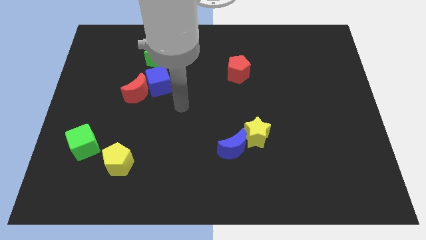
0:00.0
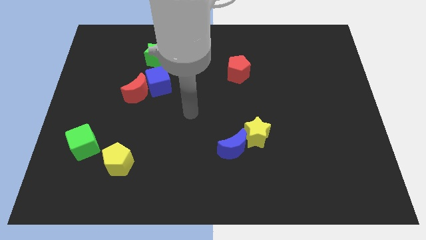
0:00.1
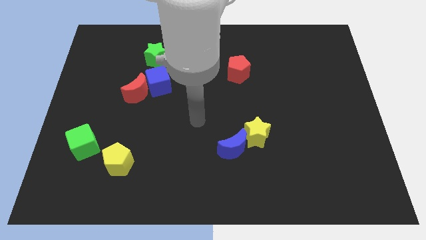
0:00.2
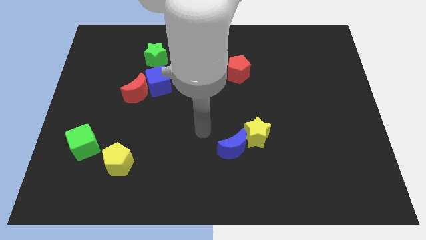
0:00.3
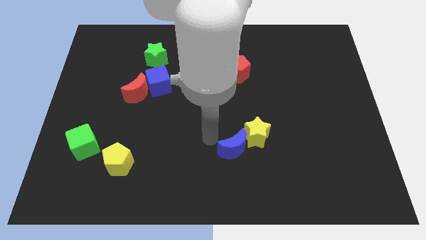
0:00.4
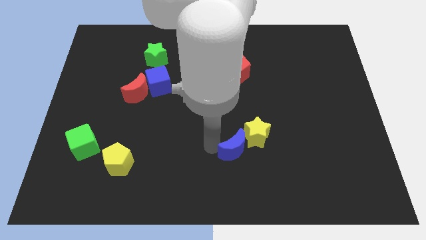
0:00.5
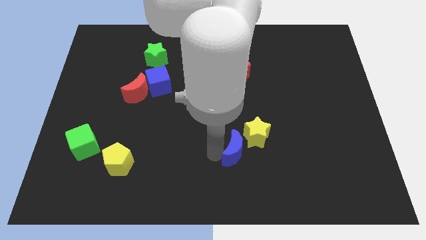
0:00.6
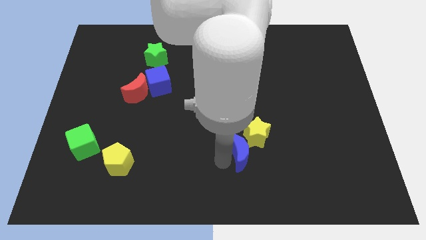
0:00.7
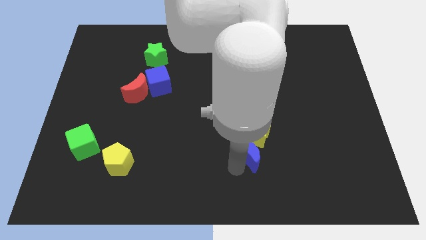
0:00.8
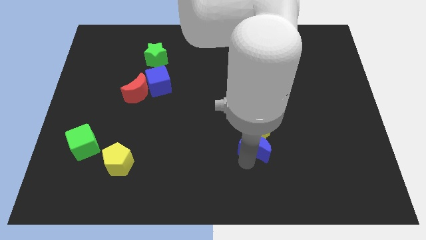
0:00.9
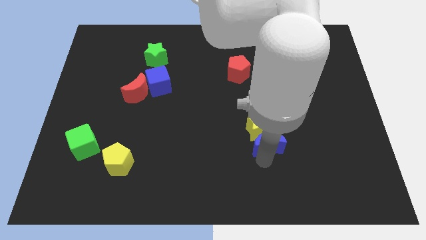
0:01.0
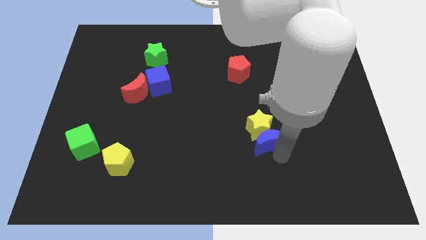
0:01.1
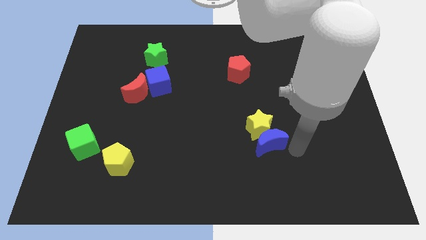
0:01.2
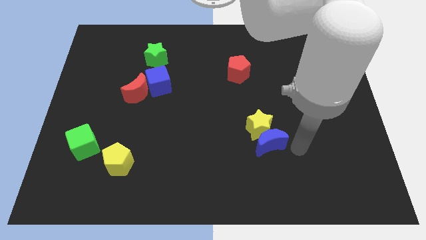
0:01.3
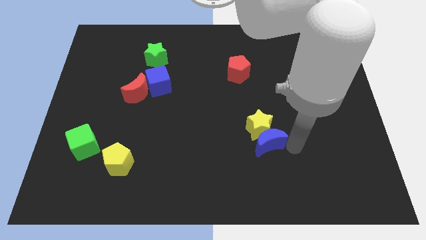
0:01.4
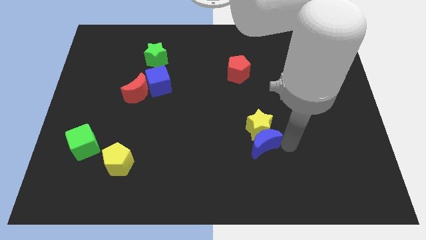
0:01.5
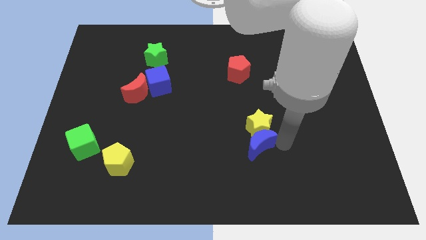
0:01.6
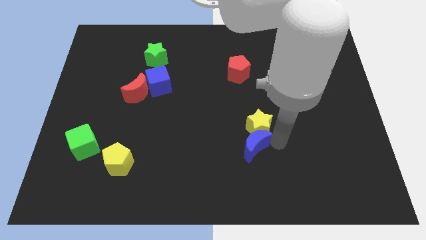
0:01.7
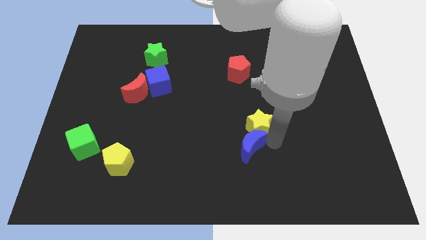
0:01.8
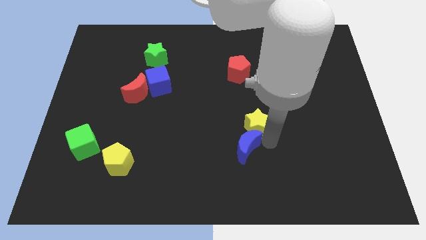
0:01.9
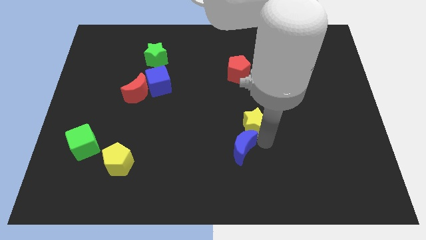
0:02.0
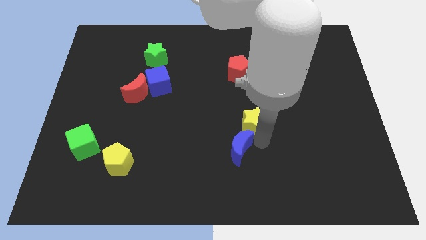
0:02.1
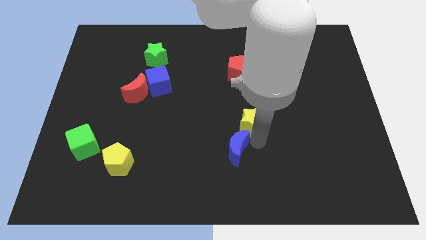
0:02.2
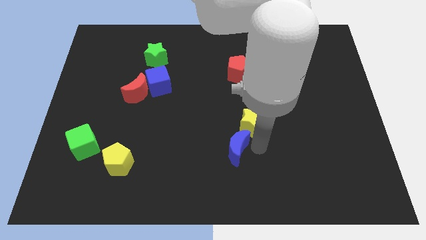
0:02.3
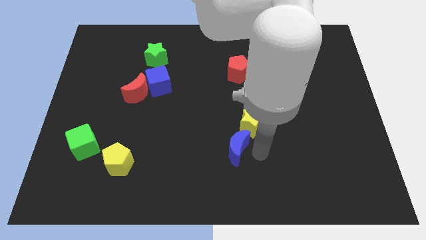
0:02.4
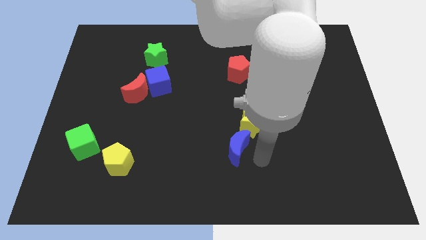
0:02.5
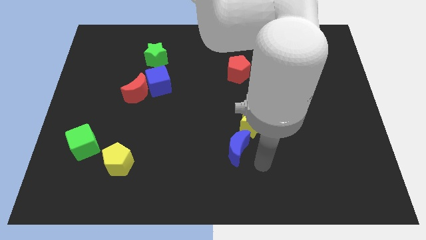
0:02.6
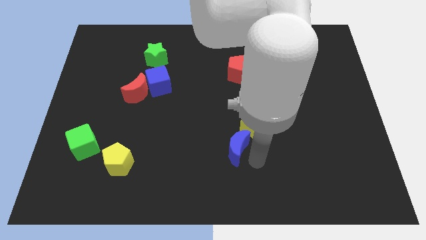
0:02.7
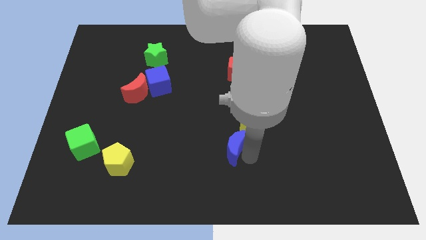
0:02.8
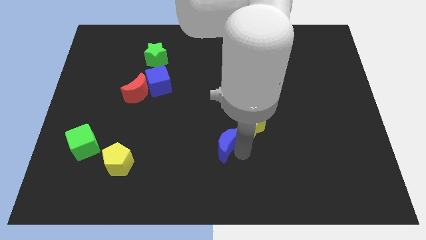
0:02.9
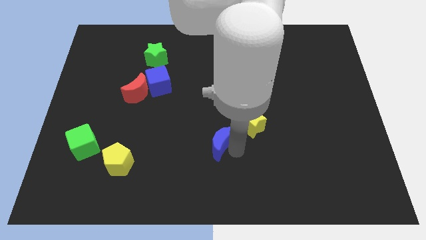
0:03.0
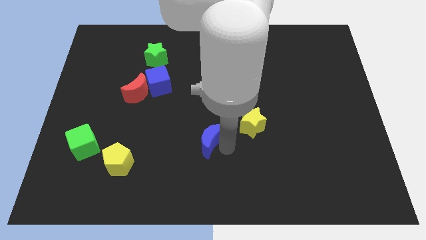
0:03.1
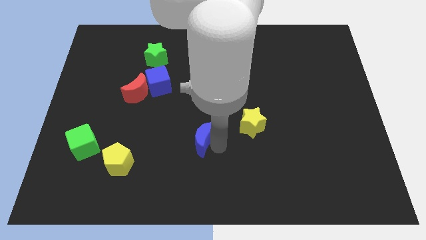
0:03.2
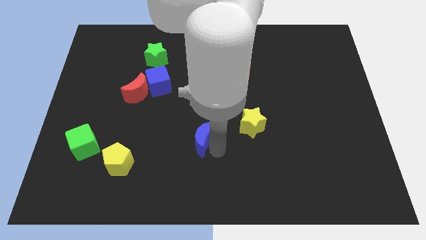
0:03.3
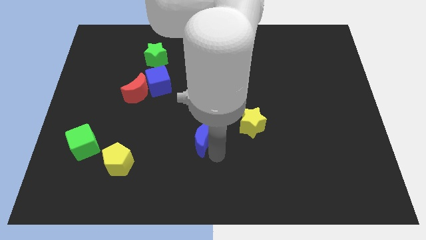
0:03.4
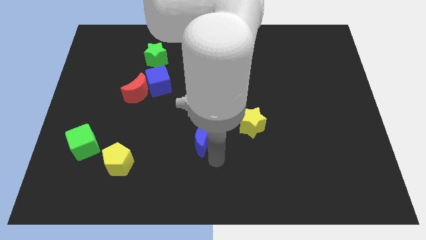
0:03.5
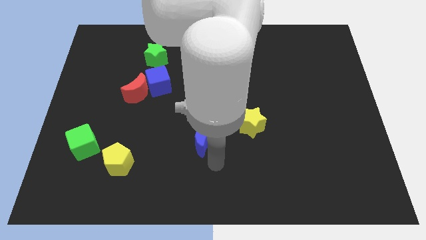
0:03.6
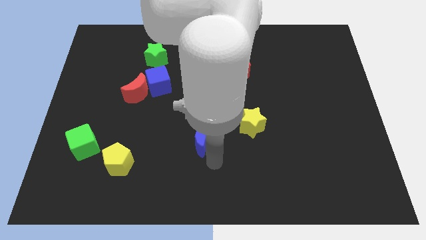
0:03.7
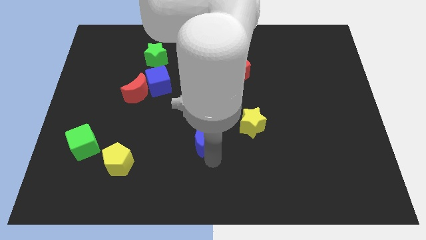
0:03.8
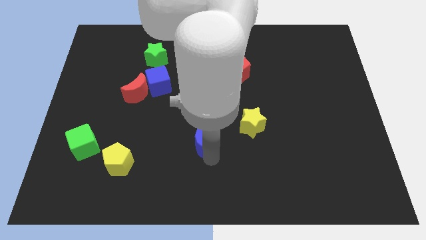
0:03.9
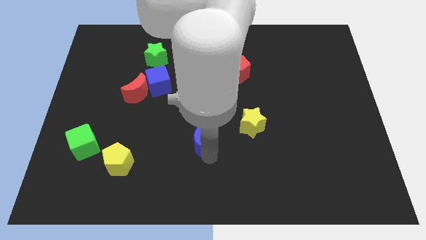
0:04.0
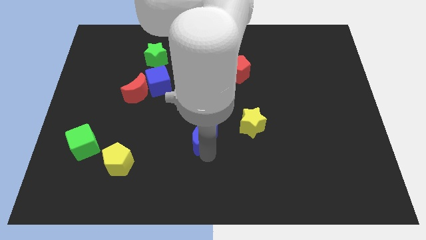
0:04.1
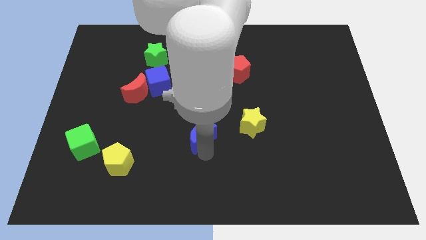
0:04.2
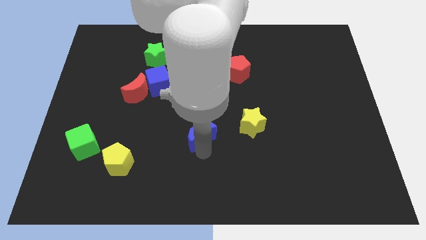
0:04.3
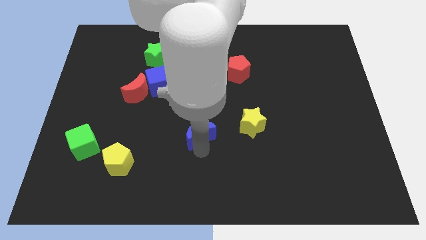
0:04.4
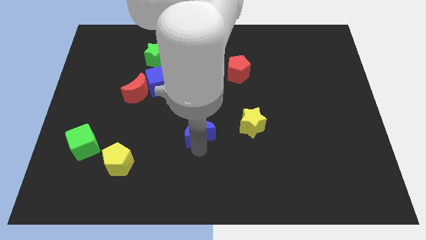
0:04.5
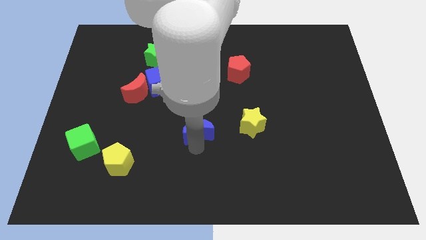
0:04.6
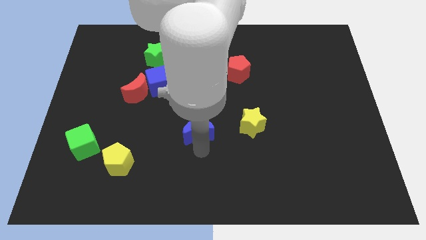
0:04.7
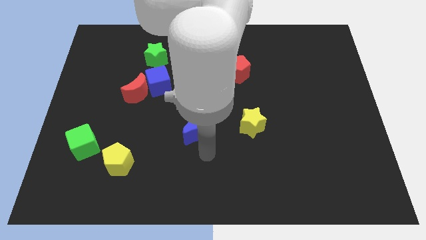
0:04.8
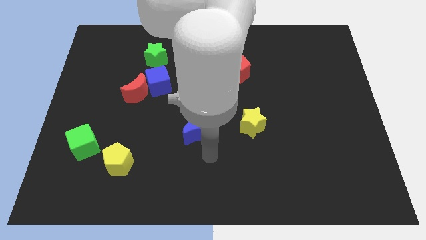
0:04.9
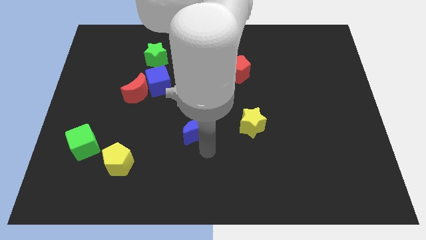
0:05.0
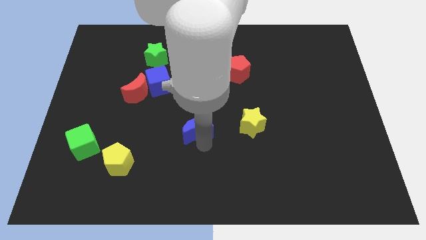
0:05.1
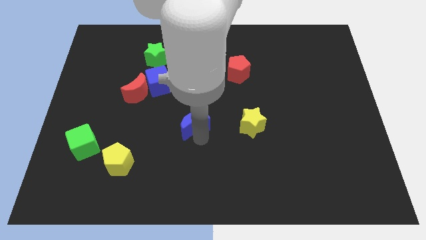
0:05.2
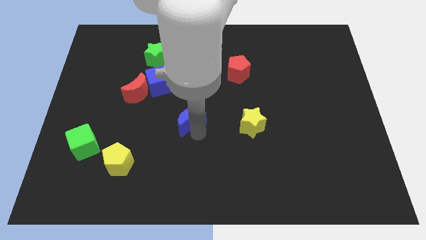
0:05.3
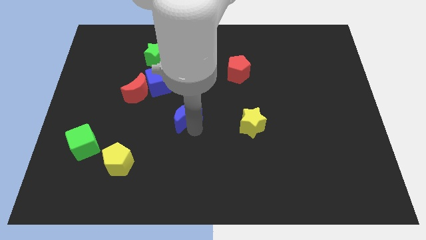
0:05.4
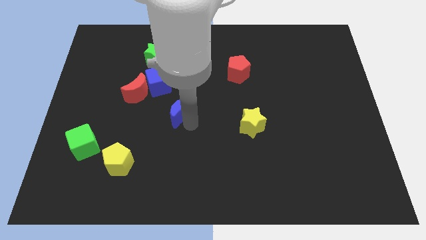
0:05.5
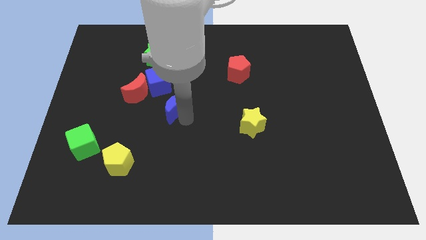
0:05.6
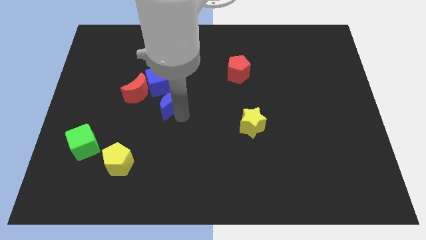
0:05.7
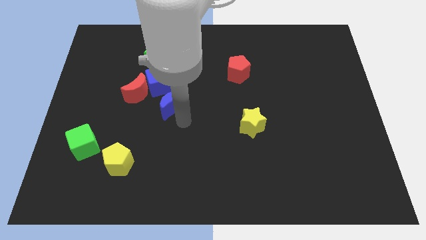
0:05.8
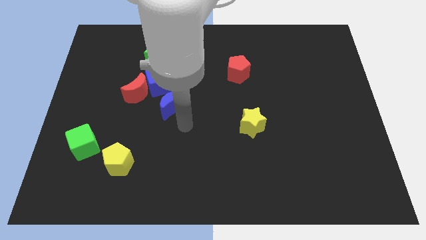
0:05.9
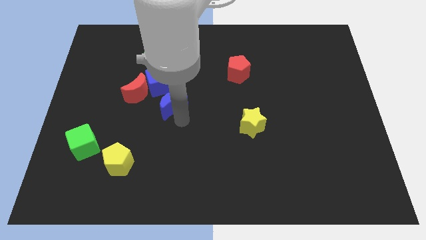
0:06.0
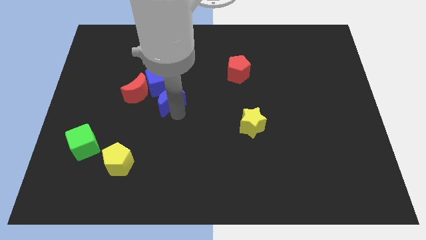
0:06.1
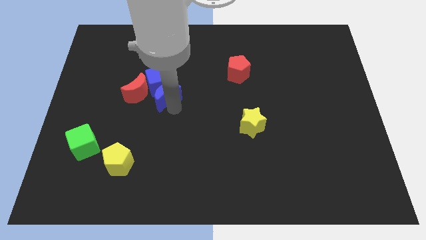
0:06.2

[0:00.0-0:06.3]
push the blue moon close to the blue cube

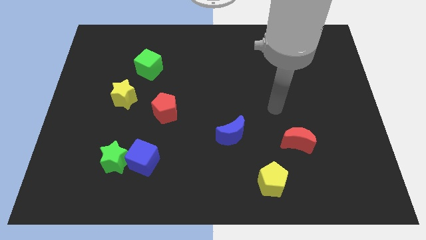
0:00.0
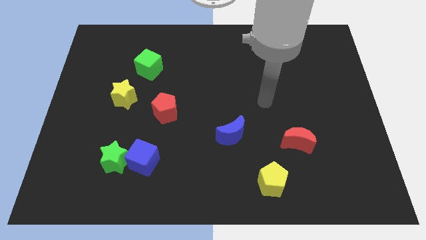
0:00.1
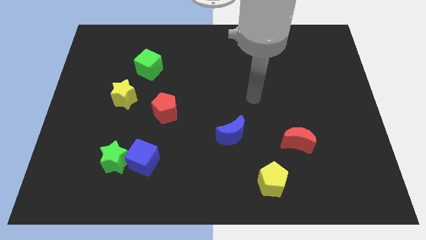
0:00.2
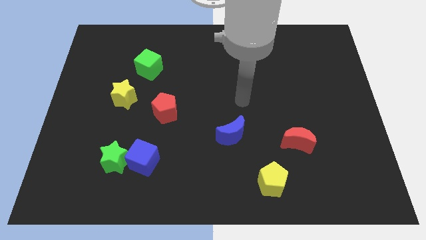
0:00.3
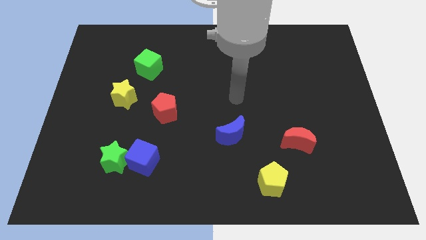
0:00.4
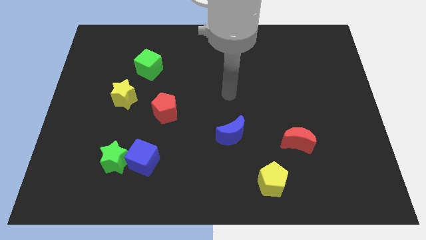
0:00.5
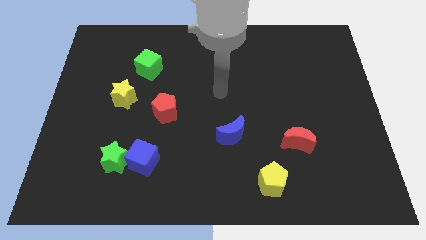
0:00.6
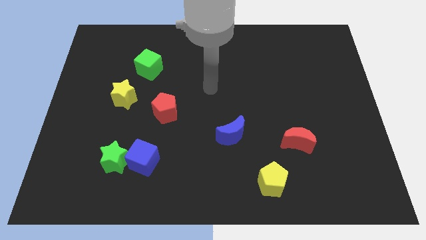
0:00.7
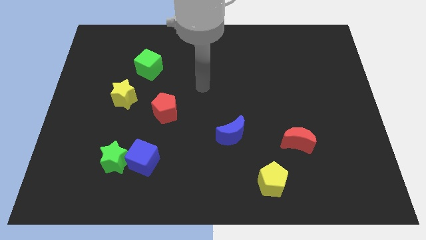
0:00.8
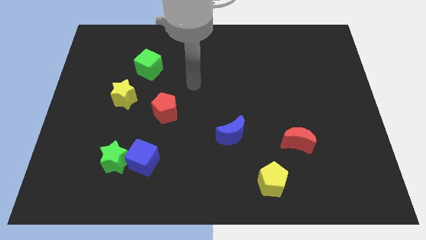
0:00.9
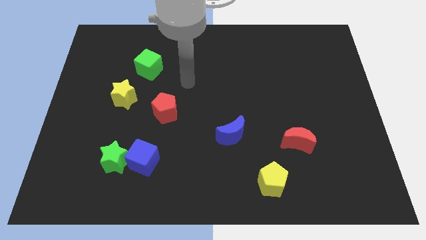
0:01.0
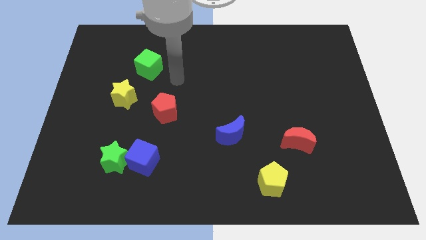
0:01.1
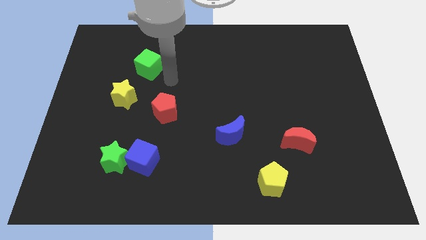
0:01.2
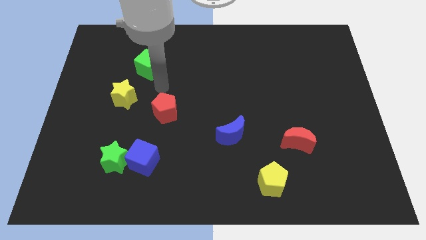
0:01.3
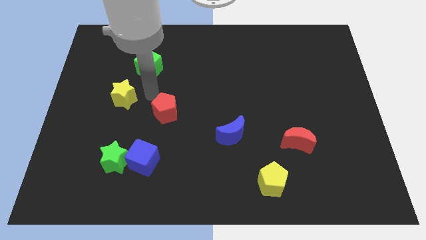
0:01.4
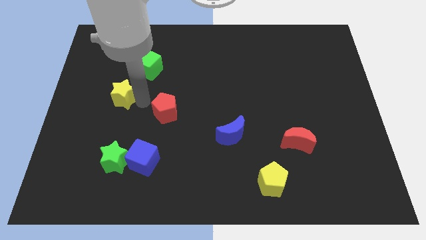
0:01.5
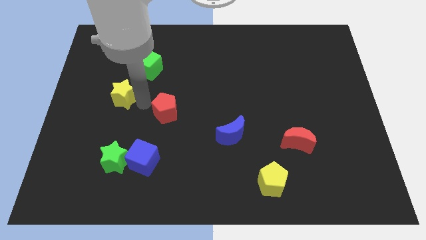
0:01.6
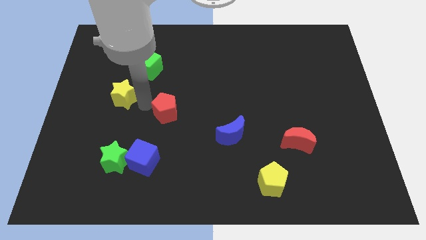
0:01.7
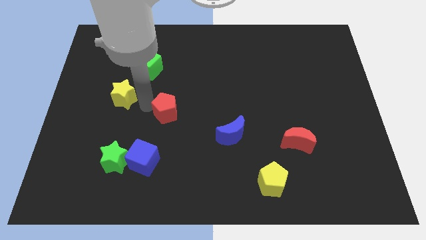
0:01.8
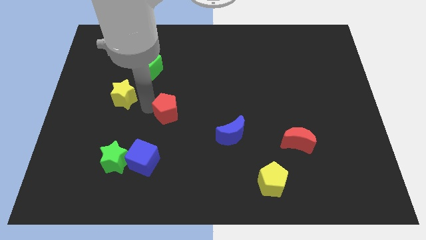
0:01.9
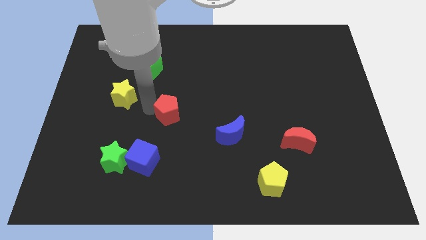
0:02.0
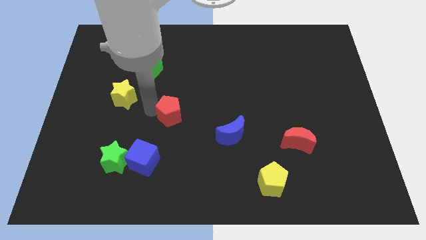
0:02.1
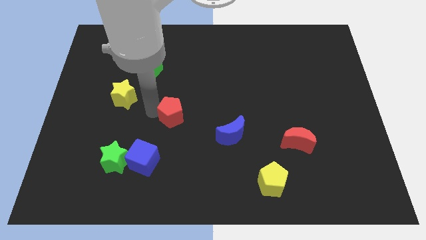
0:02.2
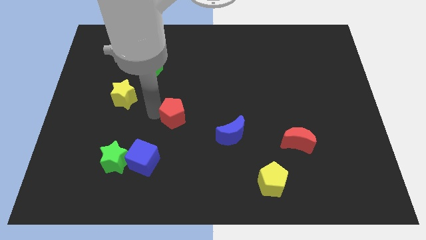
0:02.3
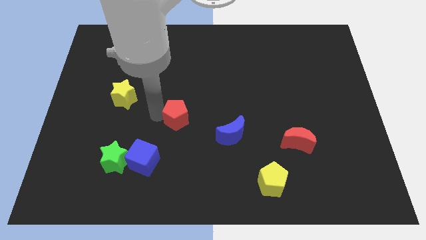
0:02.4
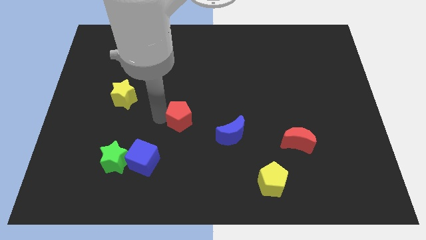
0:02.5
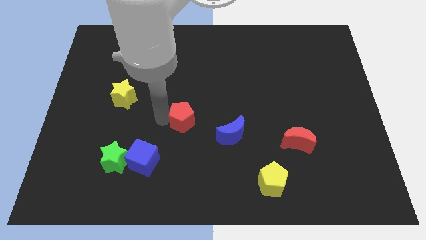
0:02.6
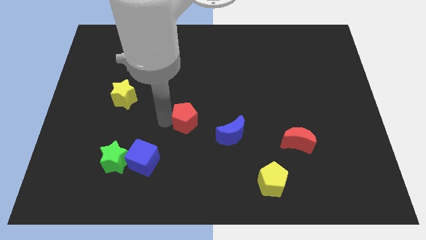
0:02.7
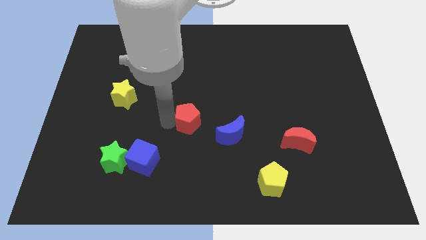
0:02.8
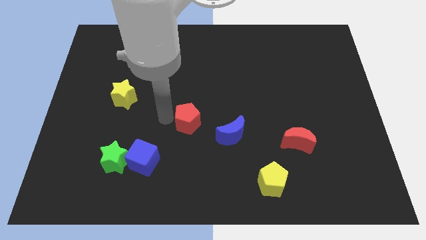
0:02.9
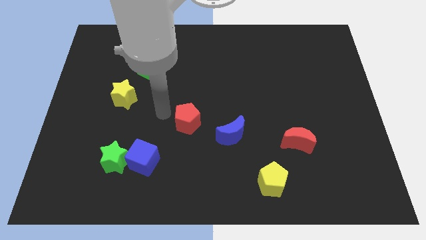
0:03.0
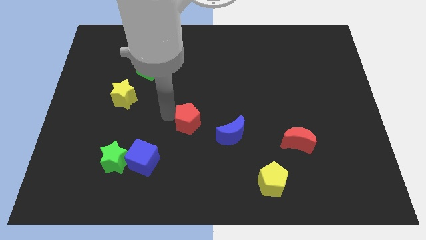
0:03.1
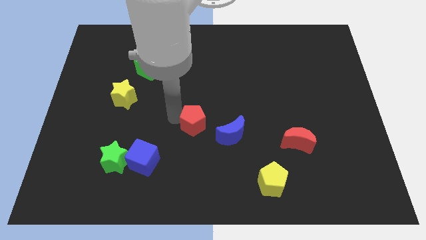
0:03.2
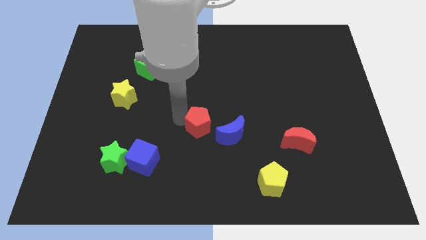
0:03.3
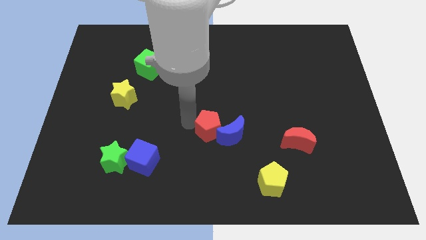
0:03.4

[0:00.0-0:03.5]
move the red pentagon to the blue moon
